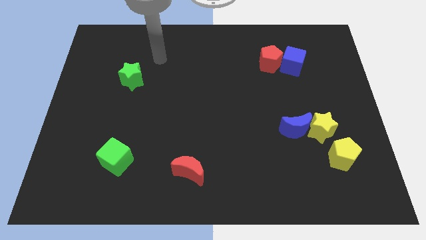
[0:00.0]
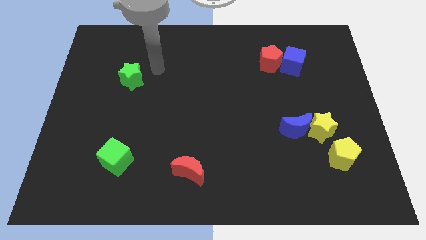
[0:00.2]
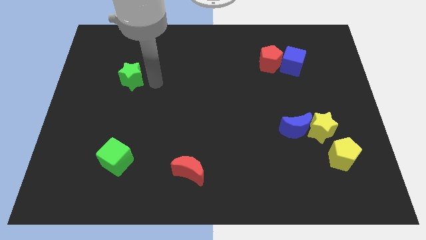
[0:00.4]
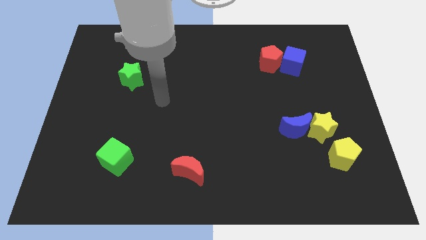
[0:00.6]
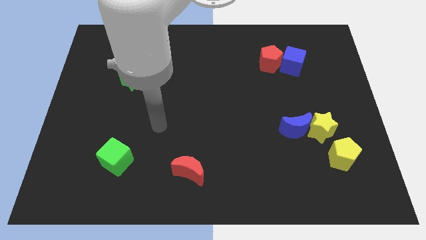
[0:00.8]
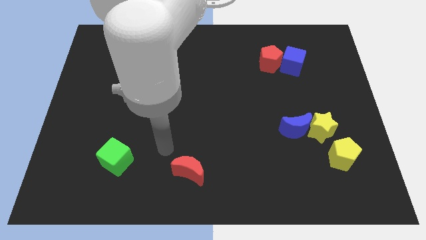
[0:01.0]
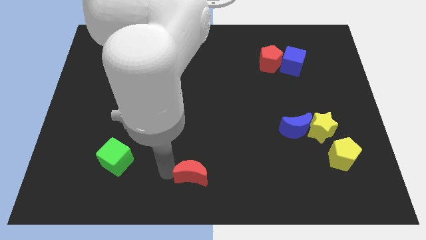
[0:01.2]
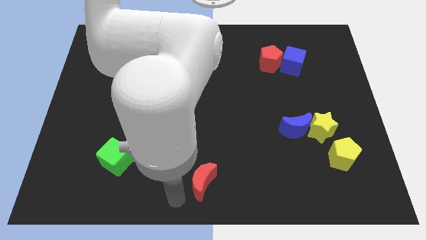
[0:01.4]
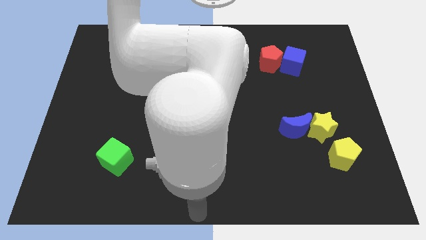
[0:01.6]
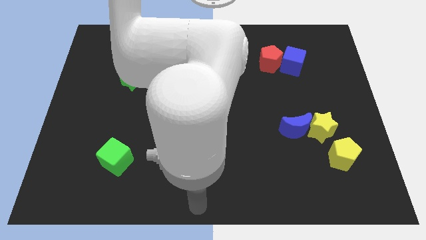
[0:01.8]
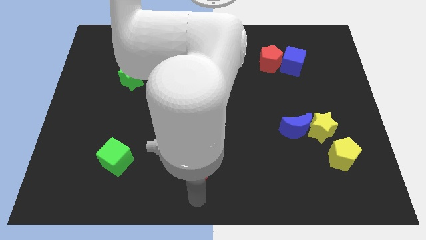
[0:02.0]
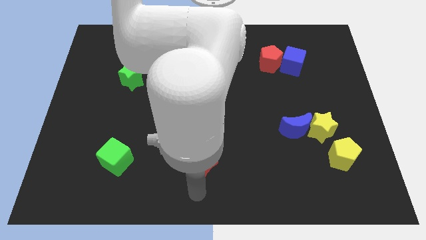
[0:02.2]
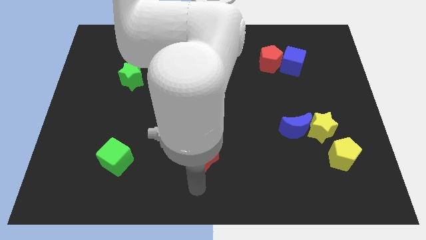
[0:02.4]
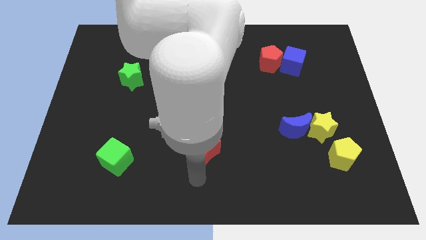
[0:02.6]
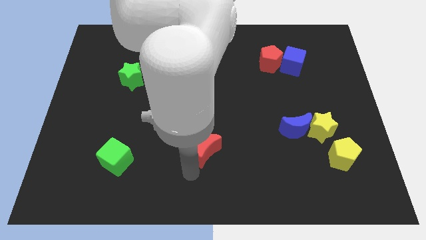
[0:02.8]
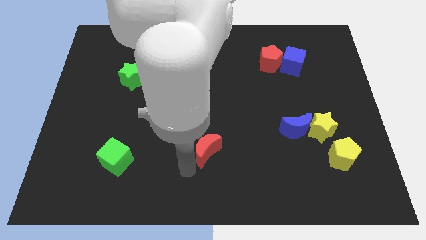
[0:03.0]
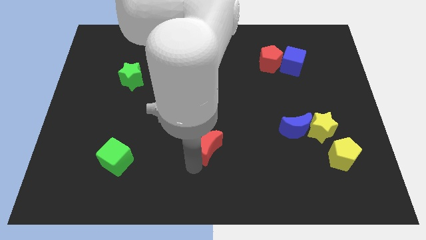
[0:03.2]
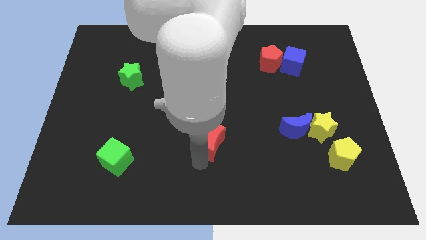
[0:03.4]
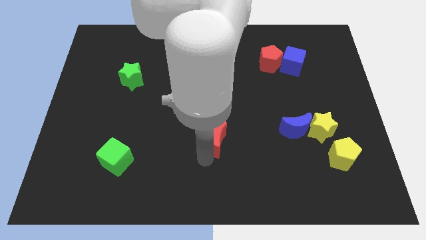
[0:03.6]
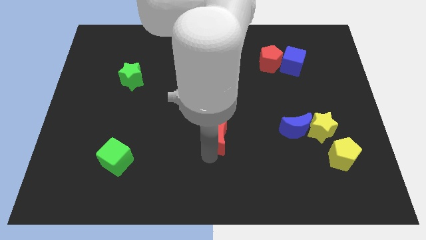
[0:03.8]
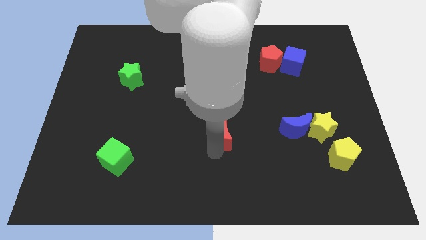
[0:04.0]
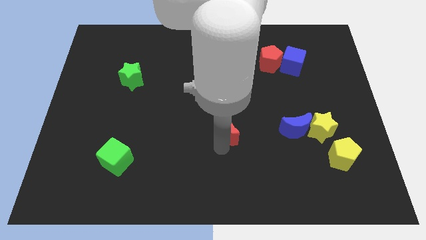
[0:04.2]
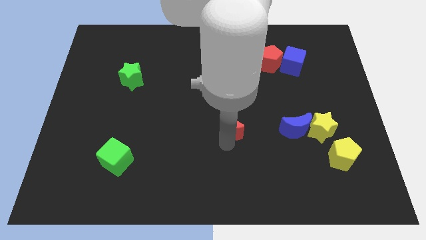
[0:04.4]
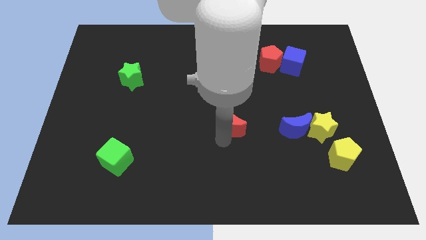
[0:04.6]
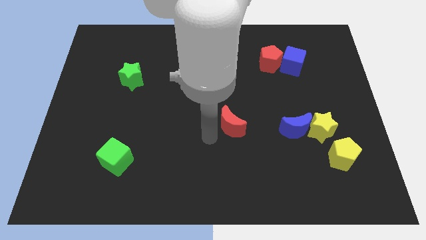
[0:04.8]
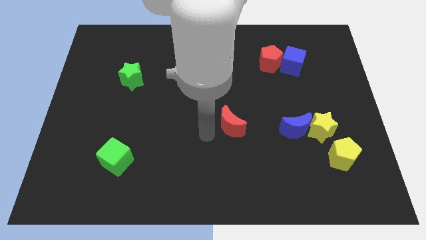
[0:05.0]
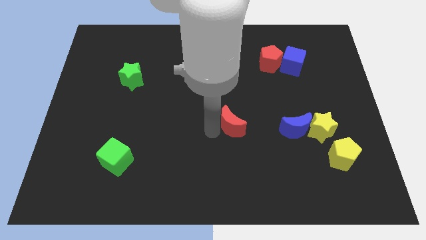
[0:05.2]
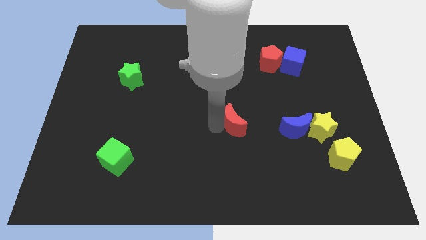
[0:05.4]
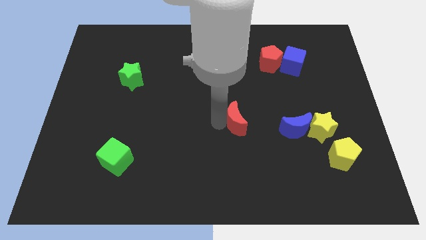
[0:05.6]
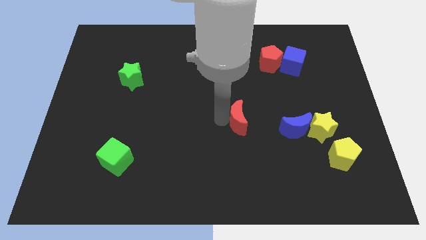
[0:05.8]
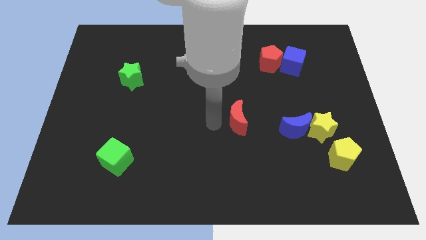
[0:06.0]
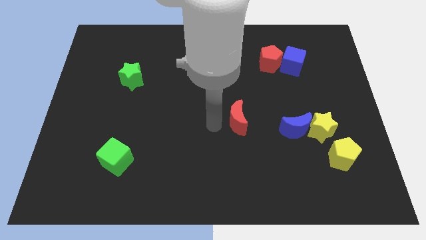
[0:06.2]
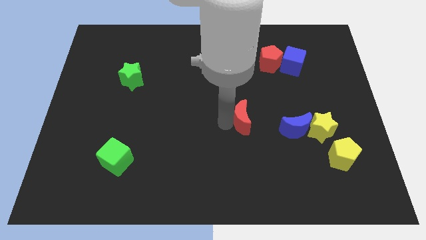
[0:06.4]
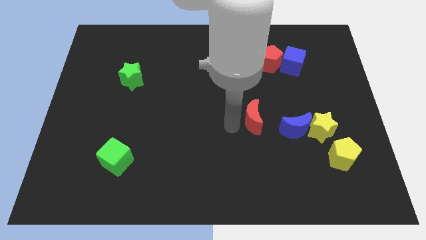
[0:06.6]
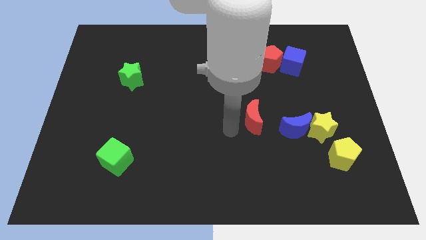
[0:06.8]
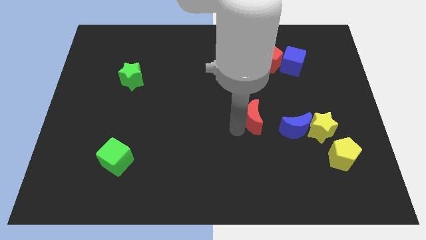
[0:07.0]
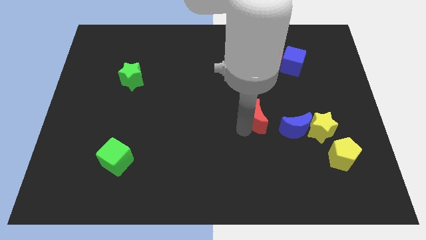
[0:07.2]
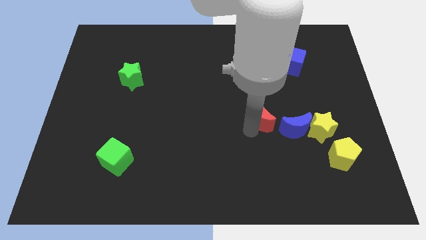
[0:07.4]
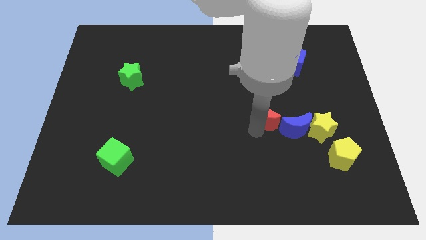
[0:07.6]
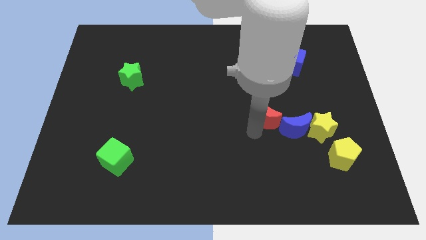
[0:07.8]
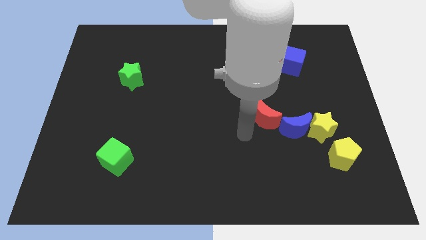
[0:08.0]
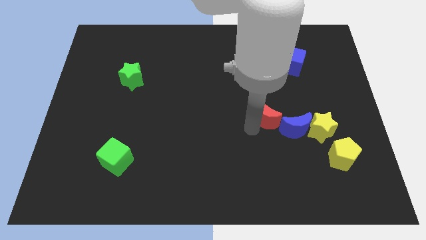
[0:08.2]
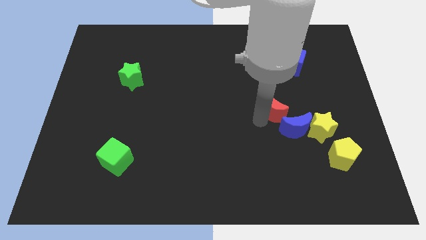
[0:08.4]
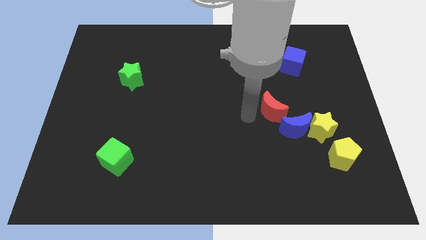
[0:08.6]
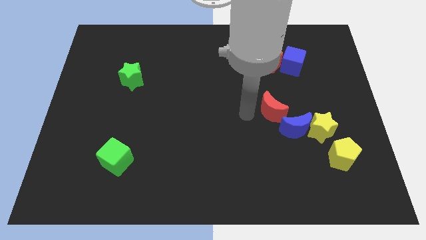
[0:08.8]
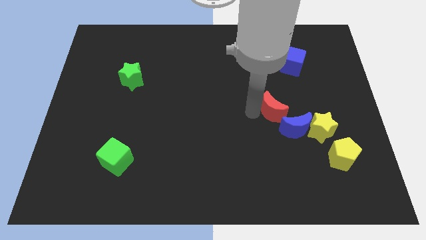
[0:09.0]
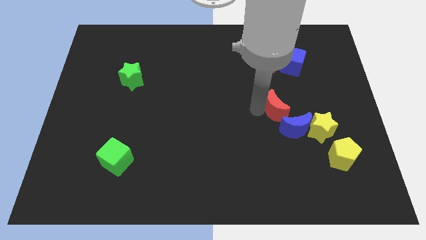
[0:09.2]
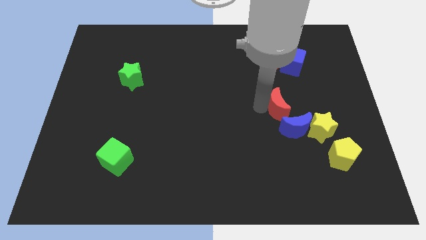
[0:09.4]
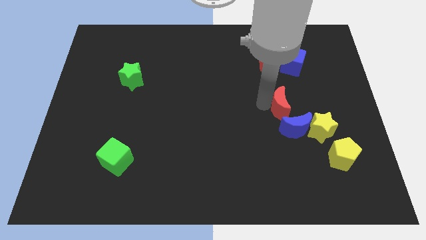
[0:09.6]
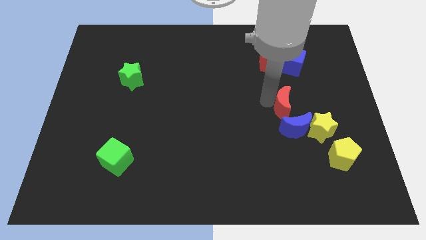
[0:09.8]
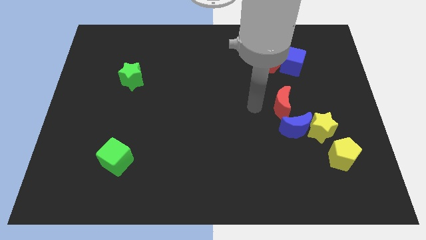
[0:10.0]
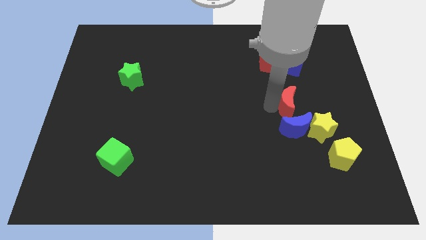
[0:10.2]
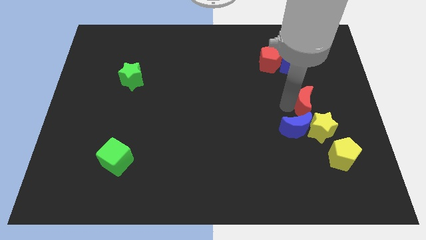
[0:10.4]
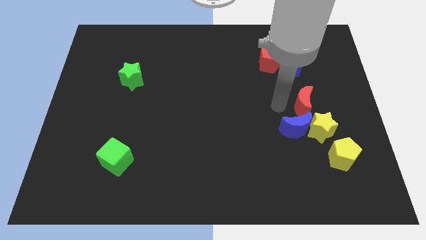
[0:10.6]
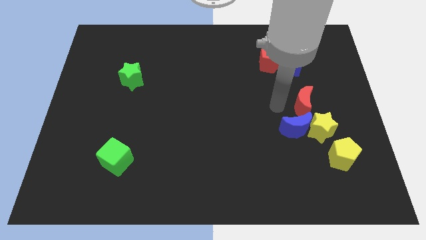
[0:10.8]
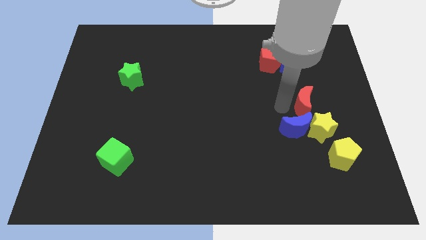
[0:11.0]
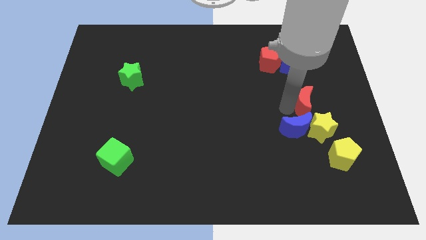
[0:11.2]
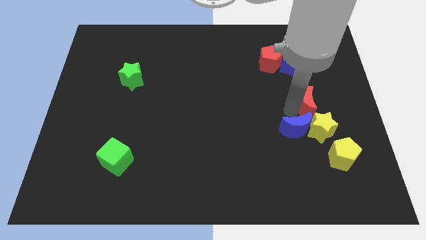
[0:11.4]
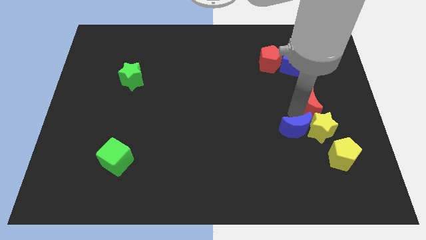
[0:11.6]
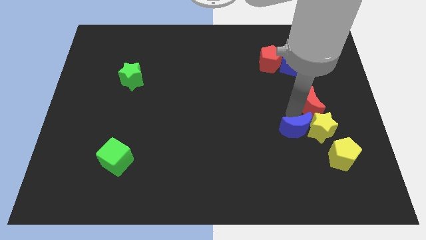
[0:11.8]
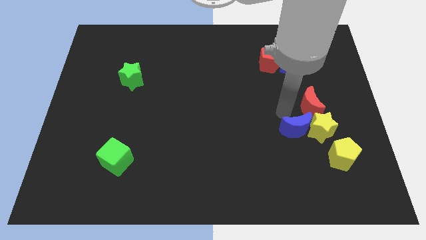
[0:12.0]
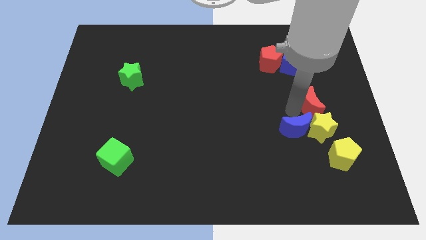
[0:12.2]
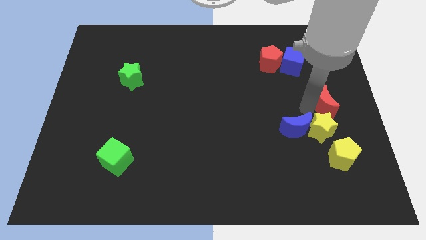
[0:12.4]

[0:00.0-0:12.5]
slide the red moon to the center right
